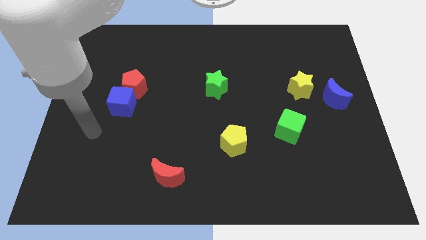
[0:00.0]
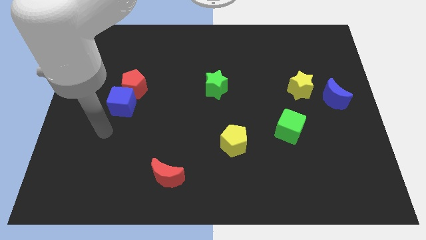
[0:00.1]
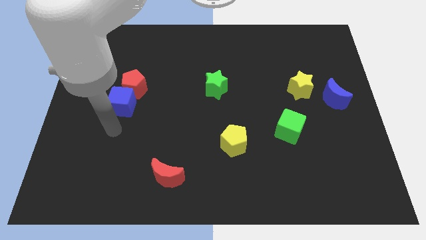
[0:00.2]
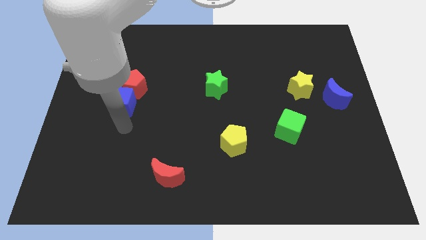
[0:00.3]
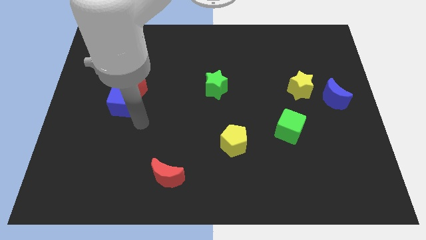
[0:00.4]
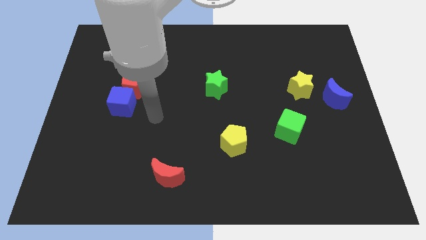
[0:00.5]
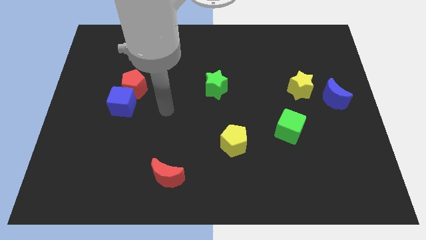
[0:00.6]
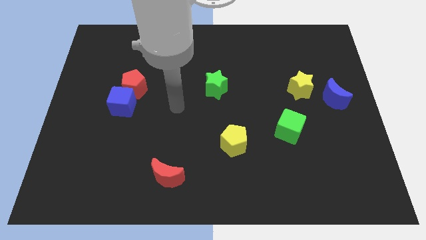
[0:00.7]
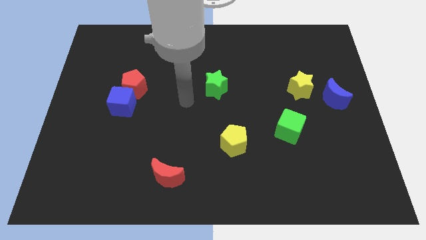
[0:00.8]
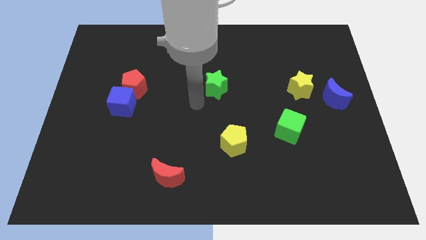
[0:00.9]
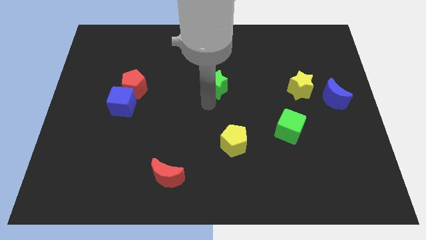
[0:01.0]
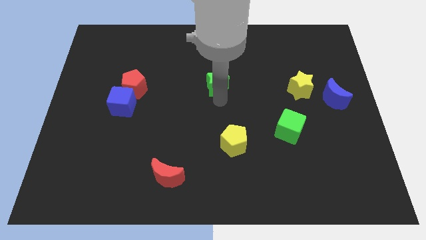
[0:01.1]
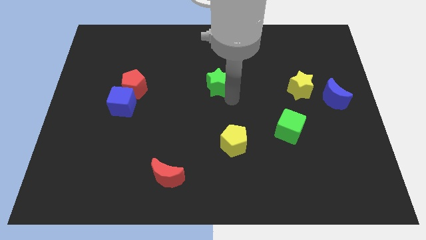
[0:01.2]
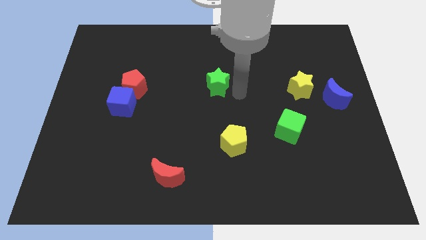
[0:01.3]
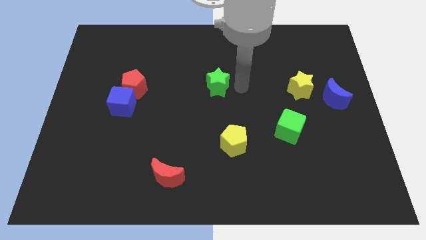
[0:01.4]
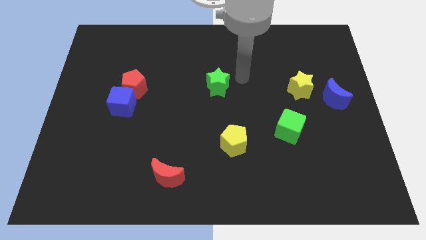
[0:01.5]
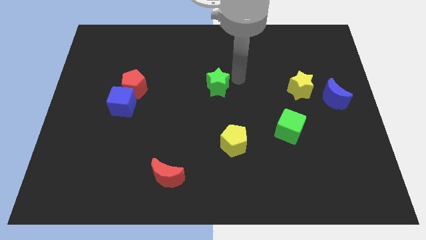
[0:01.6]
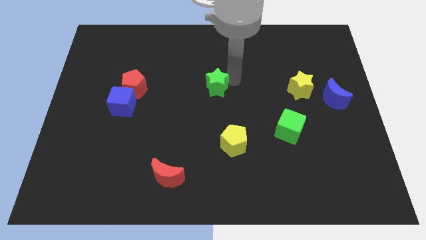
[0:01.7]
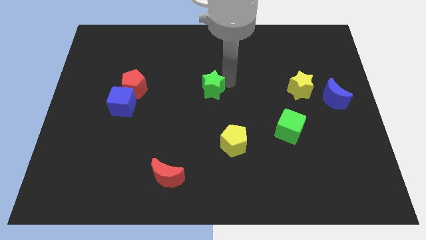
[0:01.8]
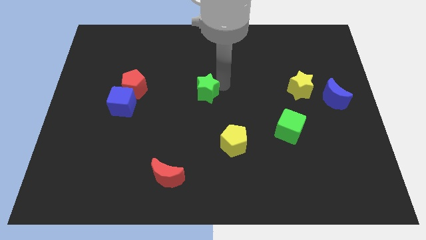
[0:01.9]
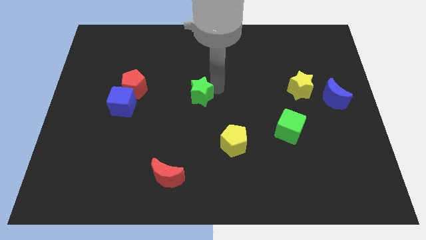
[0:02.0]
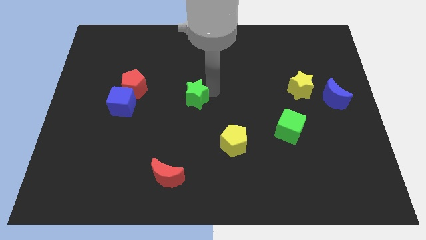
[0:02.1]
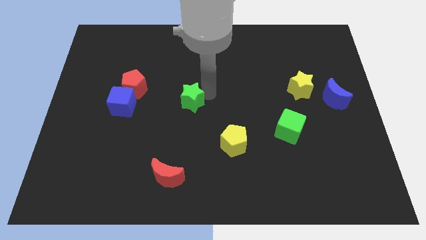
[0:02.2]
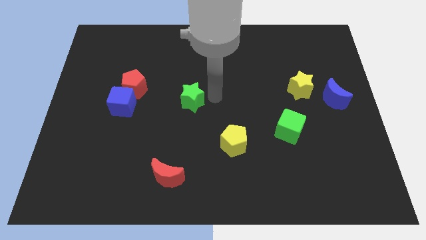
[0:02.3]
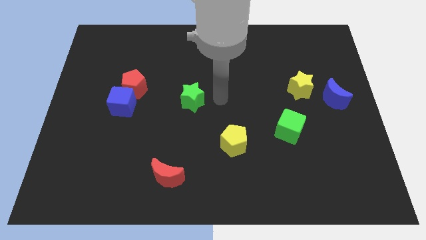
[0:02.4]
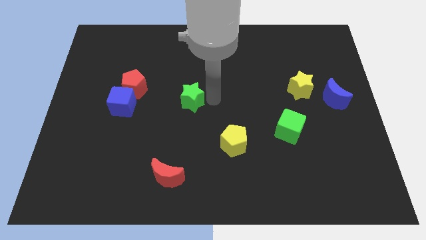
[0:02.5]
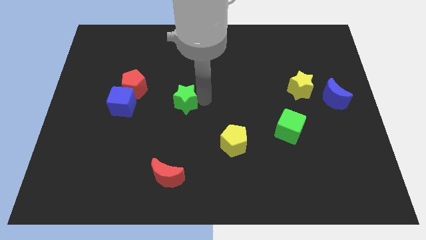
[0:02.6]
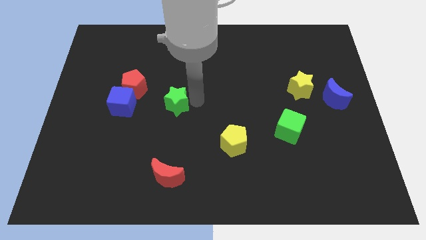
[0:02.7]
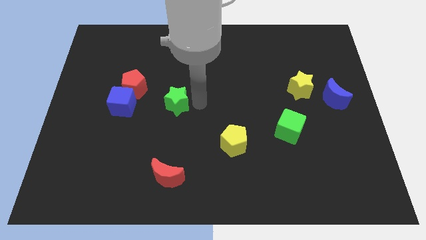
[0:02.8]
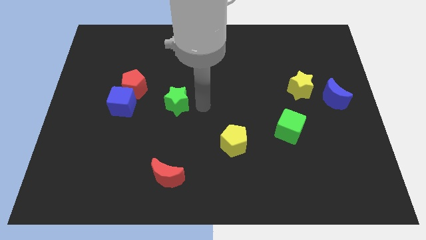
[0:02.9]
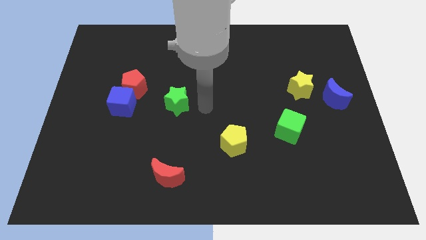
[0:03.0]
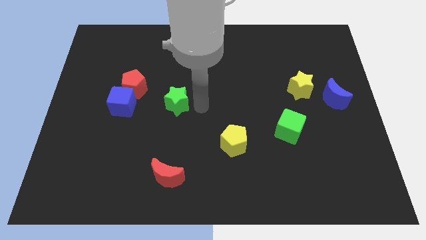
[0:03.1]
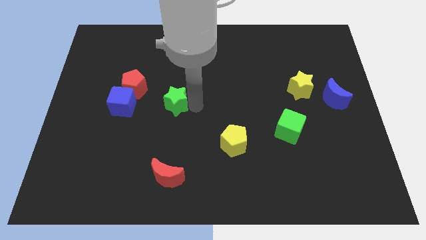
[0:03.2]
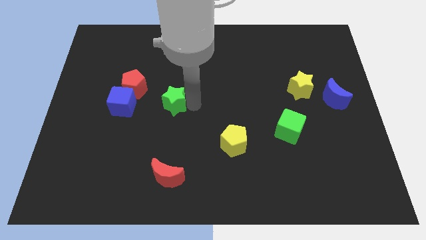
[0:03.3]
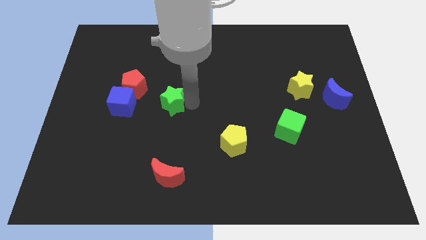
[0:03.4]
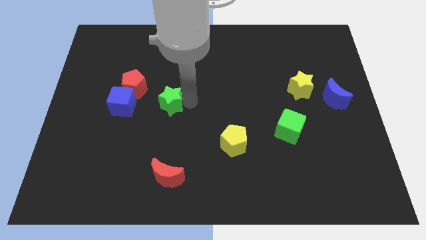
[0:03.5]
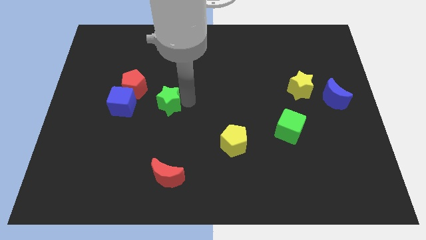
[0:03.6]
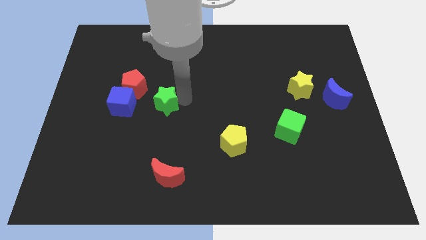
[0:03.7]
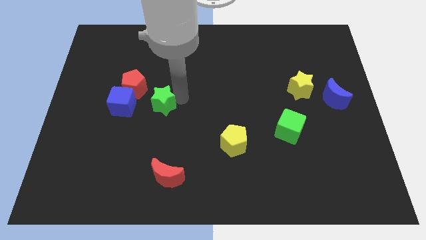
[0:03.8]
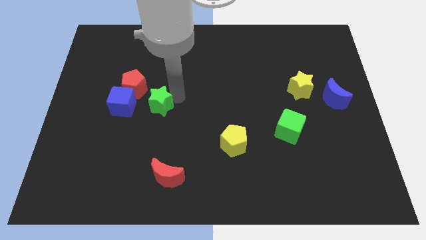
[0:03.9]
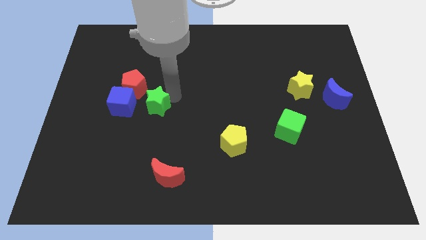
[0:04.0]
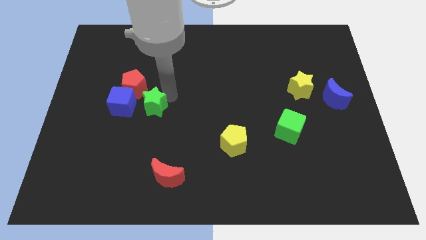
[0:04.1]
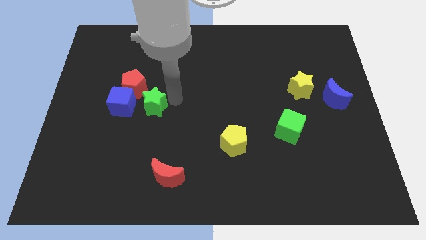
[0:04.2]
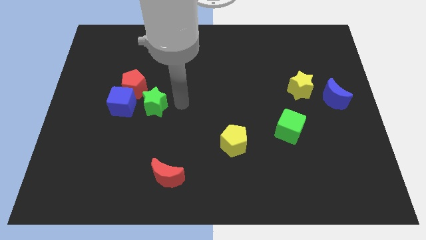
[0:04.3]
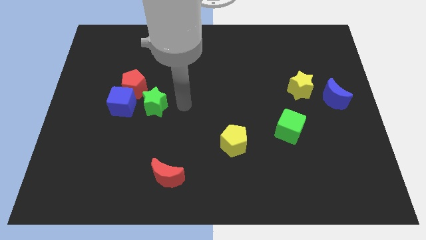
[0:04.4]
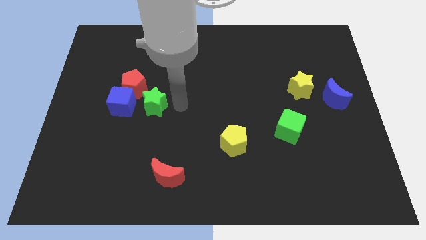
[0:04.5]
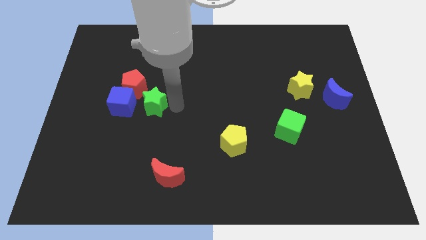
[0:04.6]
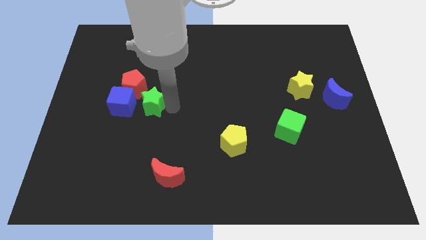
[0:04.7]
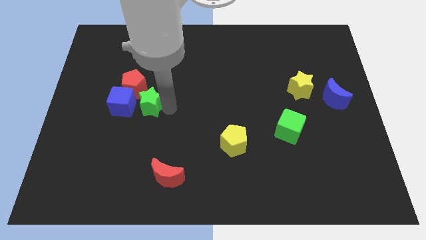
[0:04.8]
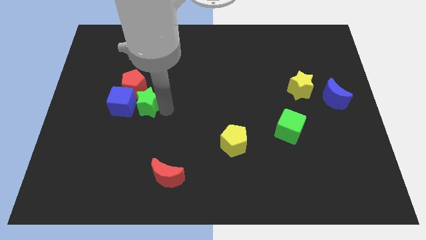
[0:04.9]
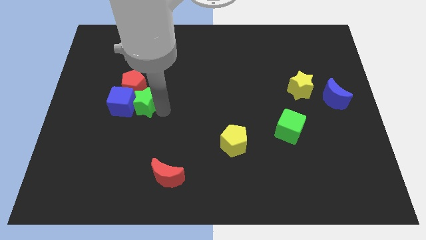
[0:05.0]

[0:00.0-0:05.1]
move the green star towards the blue cube

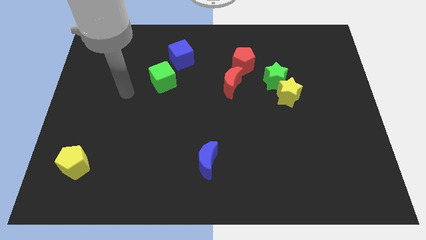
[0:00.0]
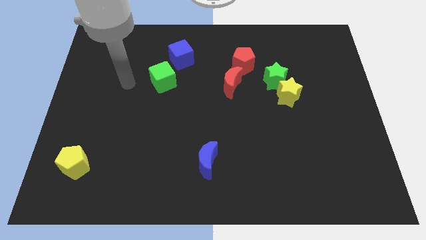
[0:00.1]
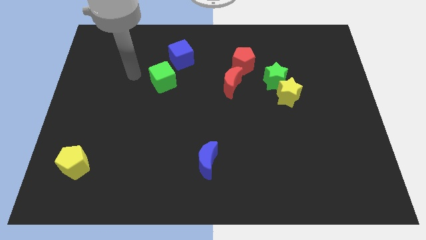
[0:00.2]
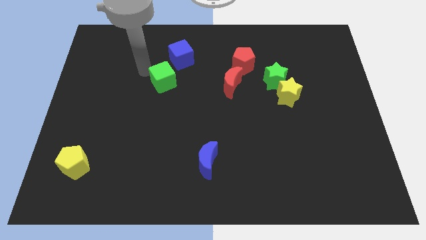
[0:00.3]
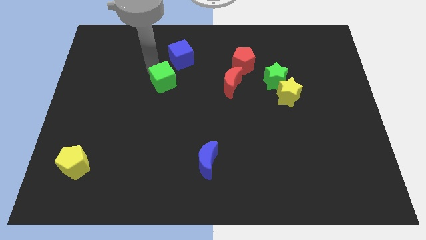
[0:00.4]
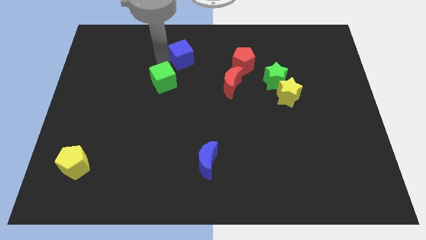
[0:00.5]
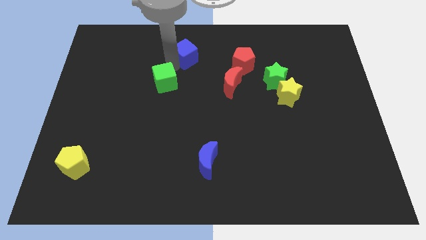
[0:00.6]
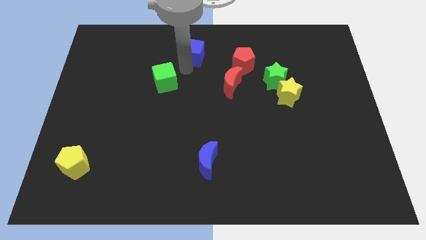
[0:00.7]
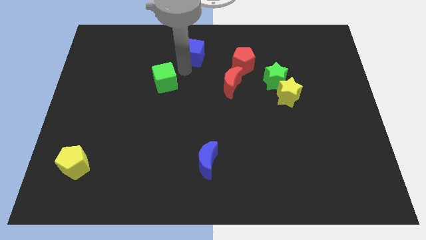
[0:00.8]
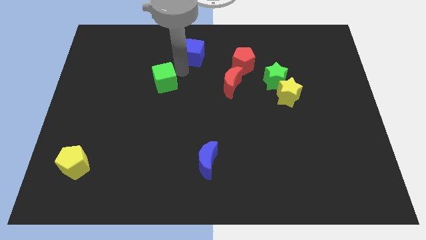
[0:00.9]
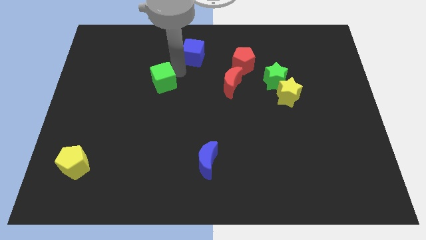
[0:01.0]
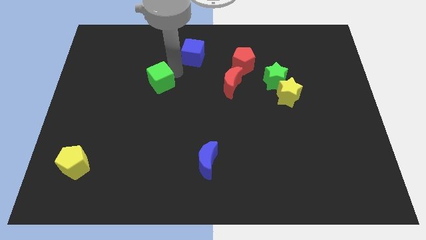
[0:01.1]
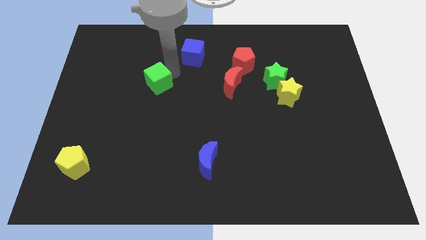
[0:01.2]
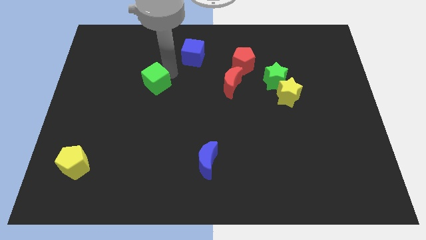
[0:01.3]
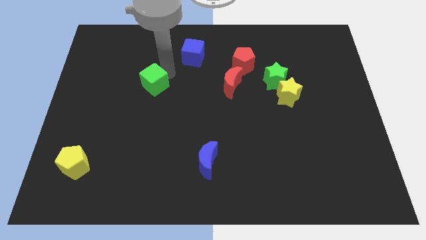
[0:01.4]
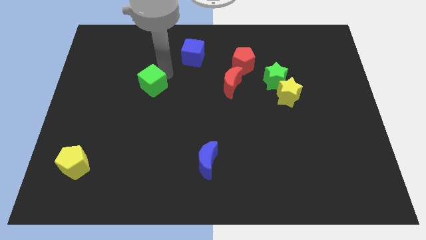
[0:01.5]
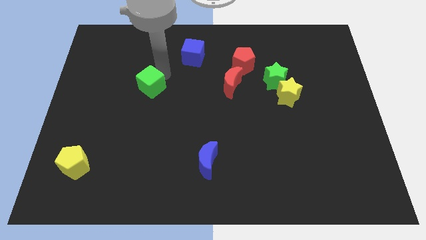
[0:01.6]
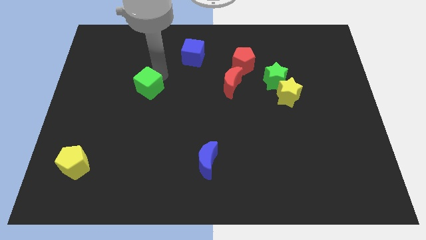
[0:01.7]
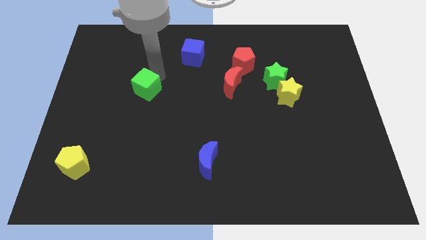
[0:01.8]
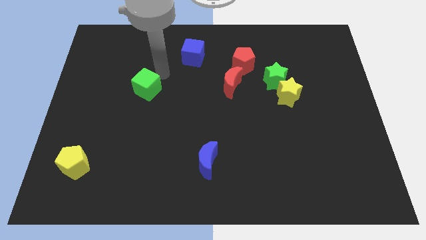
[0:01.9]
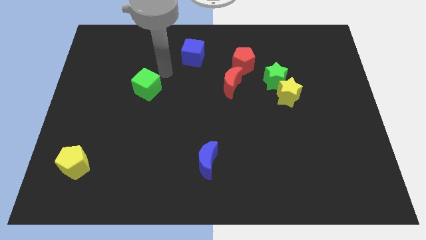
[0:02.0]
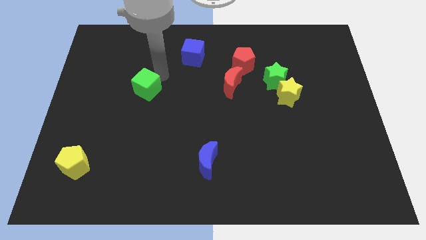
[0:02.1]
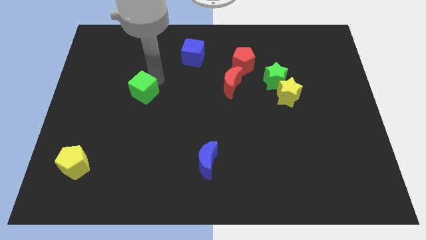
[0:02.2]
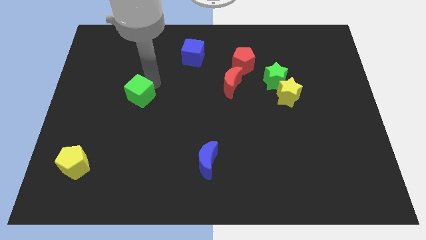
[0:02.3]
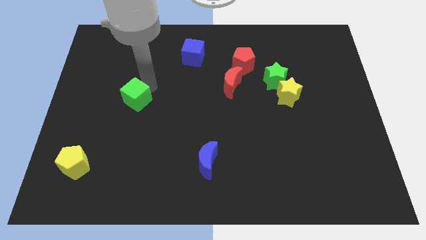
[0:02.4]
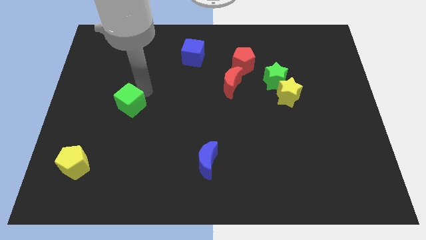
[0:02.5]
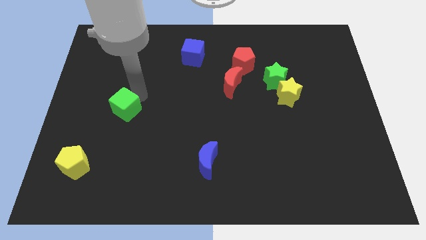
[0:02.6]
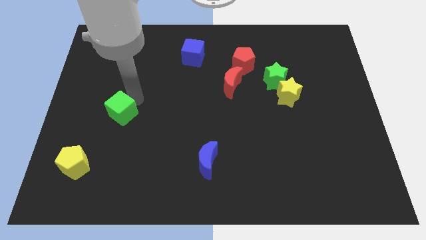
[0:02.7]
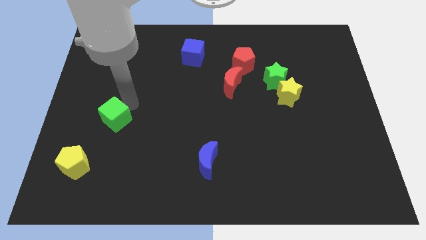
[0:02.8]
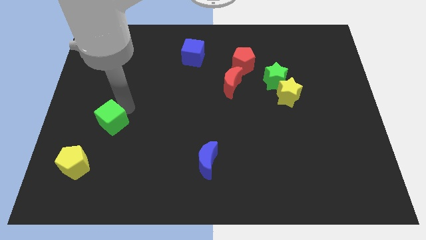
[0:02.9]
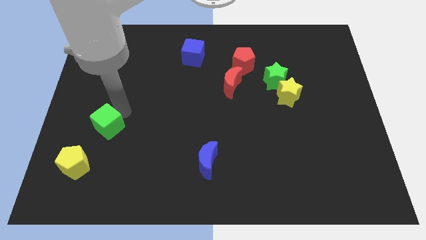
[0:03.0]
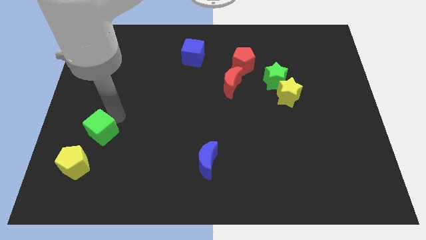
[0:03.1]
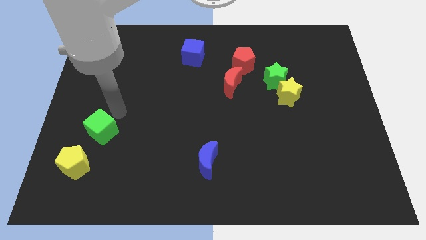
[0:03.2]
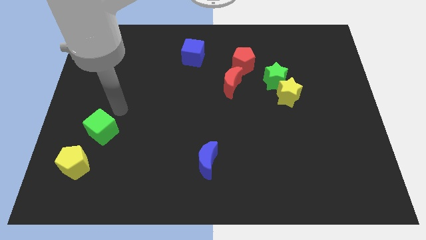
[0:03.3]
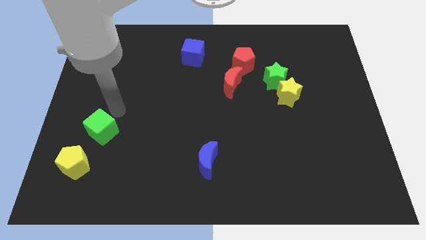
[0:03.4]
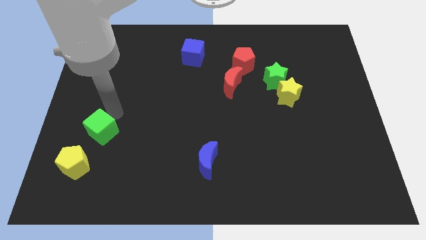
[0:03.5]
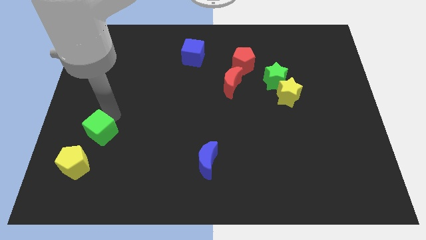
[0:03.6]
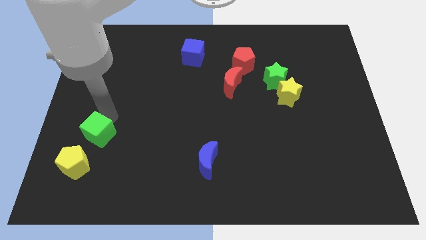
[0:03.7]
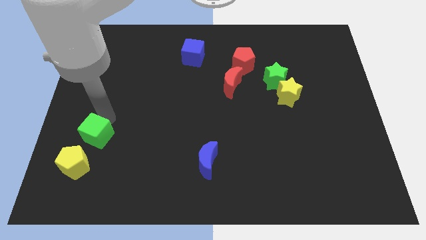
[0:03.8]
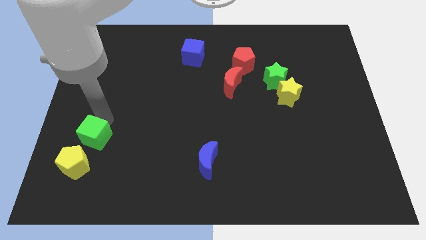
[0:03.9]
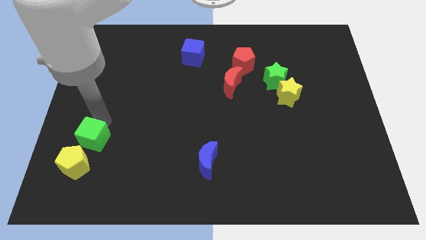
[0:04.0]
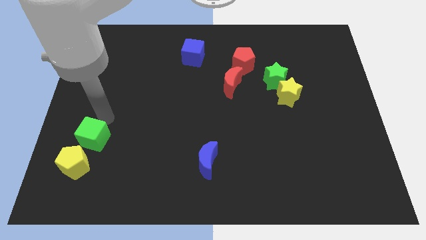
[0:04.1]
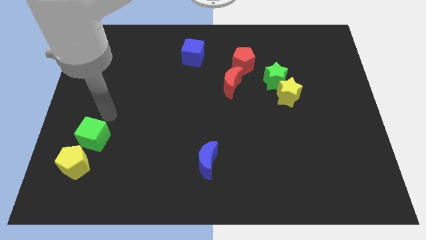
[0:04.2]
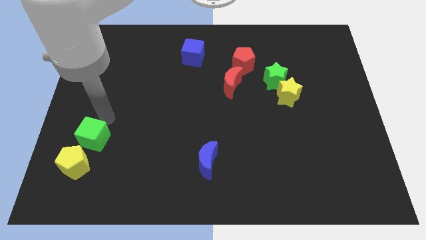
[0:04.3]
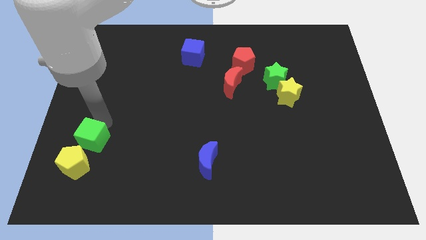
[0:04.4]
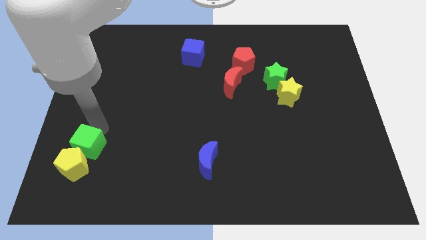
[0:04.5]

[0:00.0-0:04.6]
move the green cube towards the yellow pentagon
